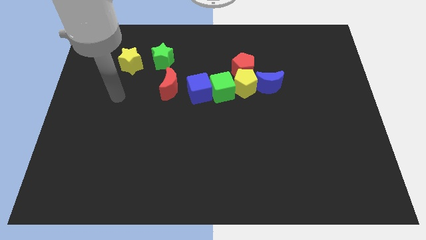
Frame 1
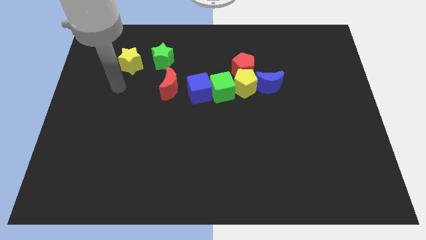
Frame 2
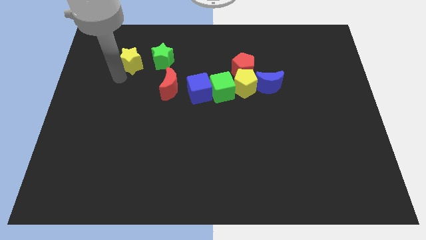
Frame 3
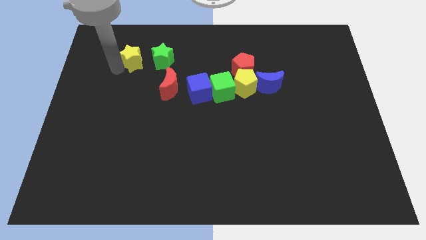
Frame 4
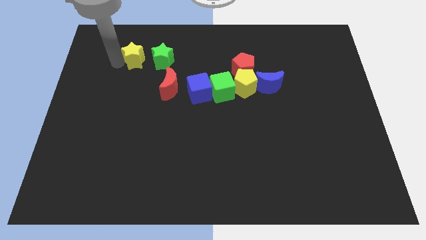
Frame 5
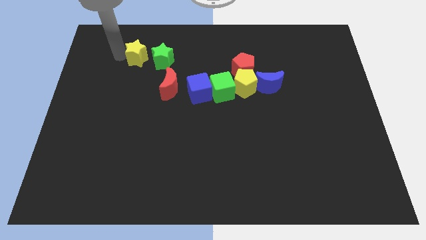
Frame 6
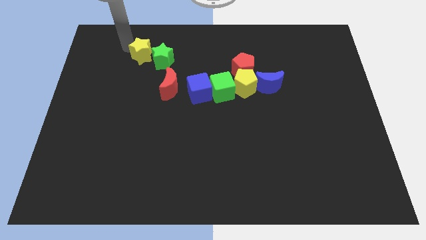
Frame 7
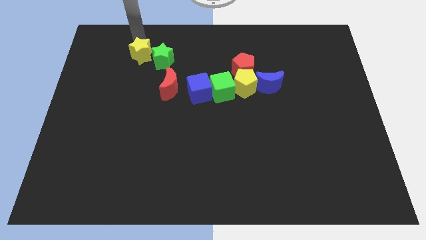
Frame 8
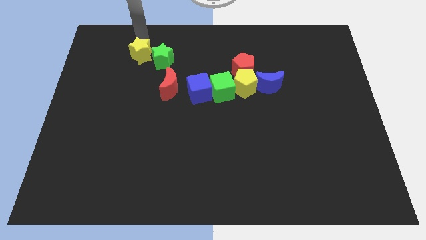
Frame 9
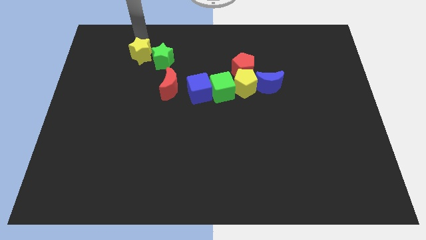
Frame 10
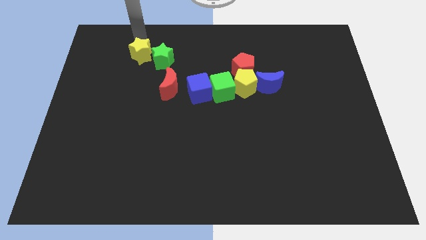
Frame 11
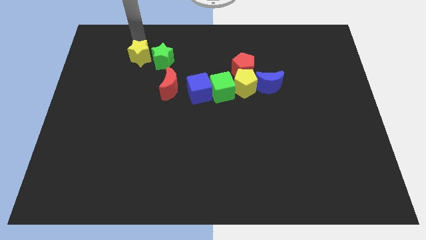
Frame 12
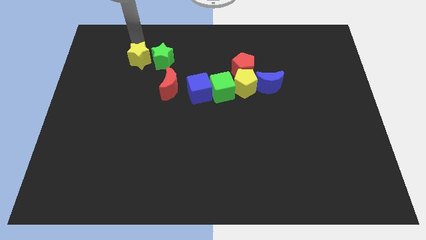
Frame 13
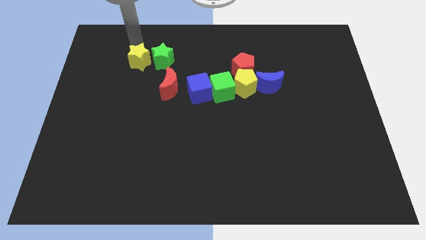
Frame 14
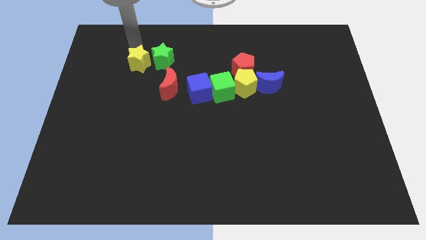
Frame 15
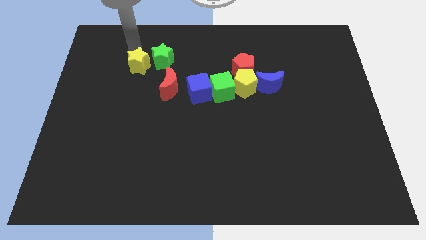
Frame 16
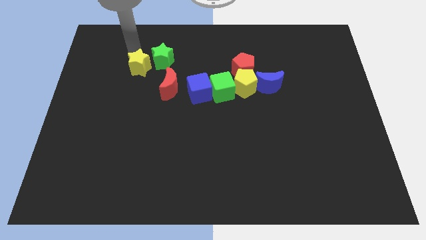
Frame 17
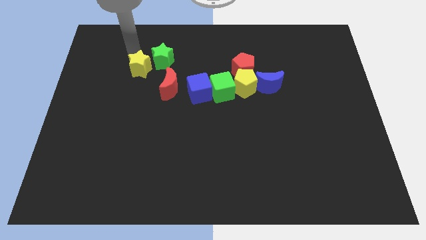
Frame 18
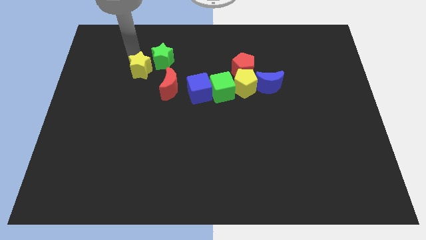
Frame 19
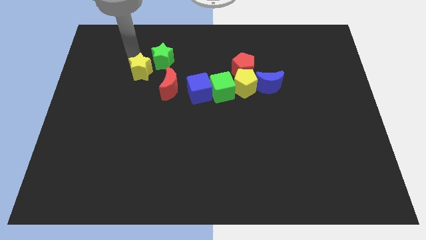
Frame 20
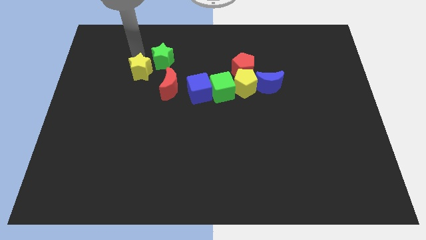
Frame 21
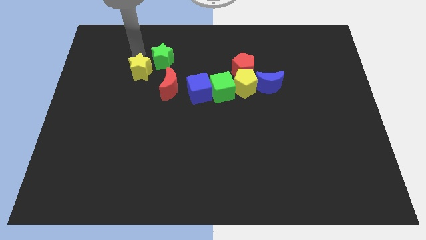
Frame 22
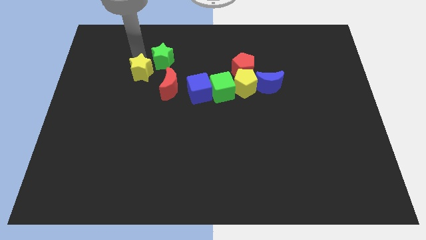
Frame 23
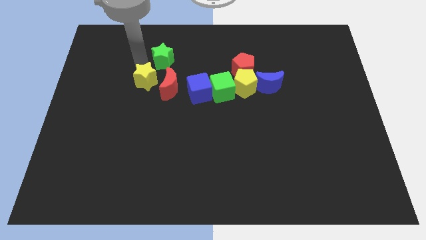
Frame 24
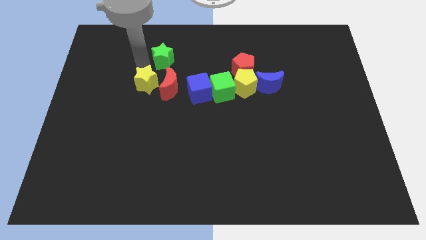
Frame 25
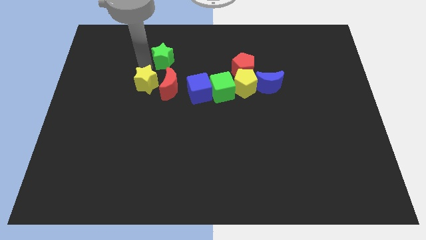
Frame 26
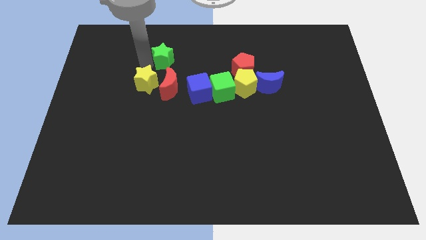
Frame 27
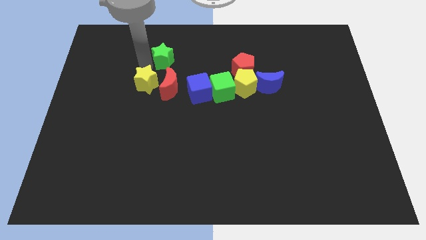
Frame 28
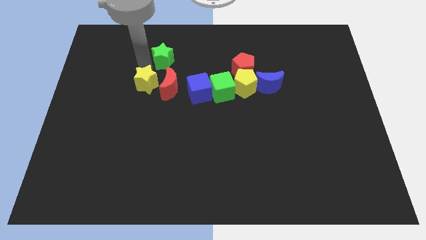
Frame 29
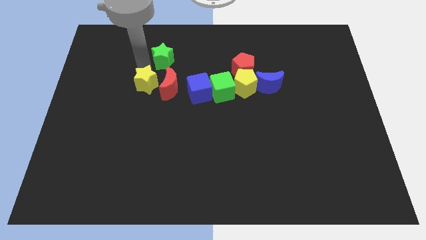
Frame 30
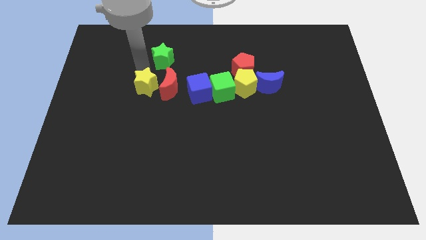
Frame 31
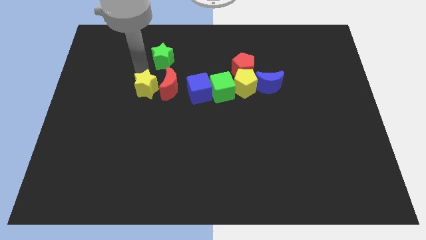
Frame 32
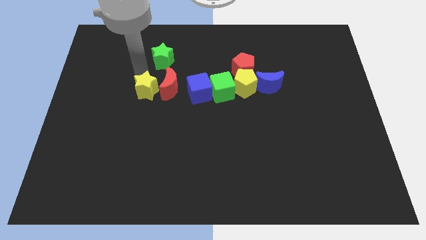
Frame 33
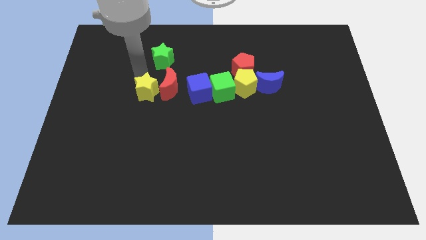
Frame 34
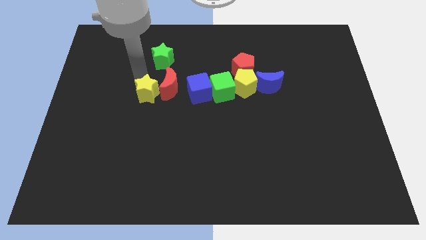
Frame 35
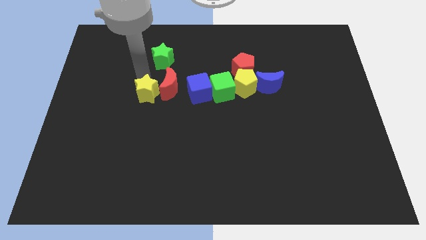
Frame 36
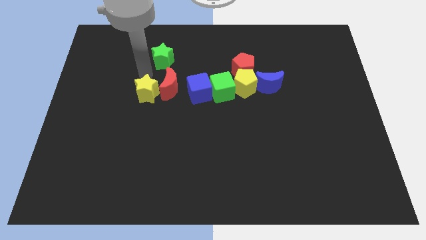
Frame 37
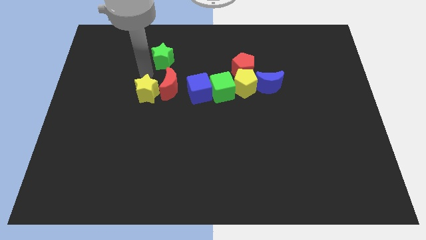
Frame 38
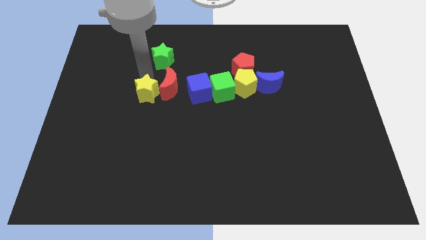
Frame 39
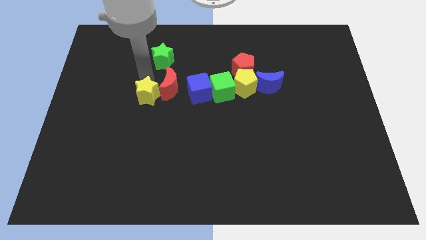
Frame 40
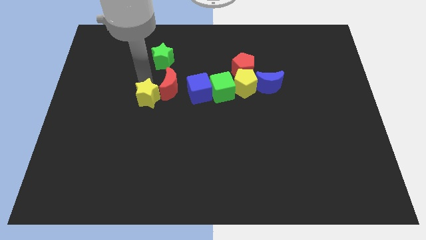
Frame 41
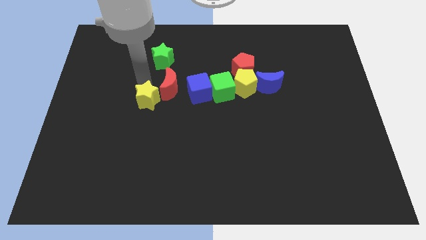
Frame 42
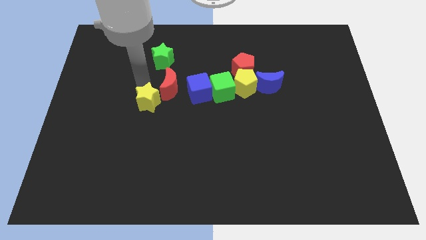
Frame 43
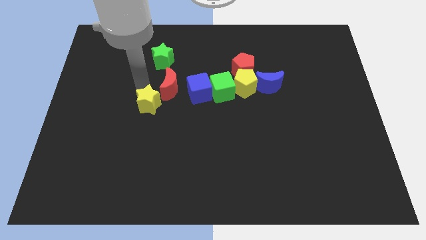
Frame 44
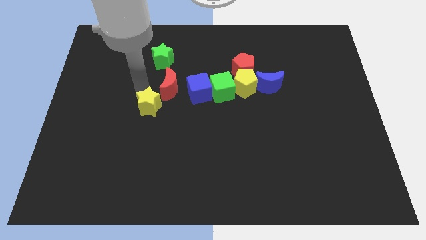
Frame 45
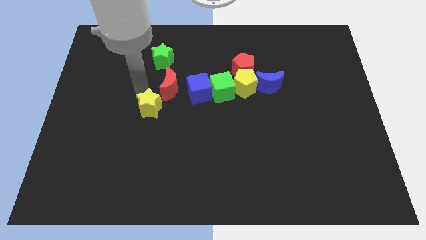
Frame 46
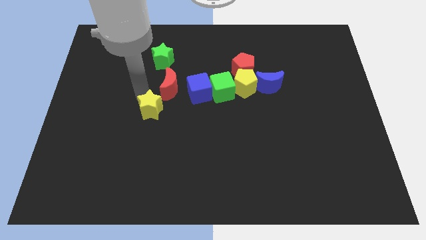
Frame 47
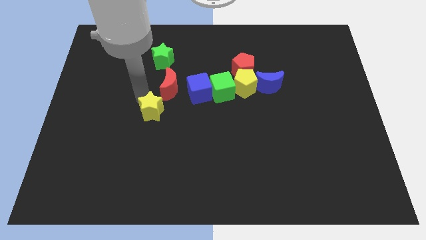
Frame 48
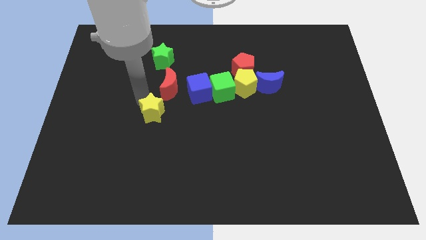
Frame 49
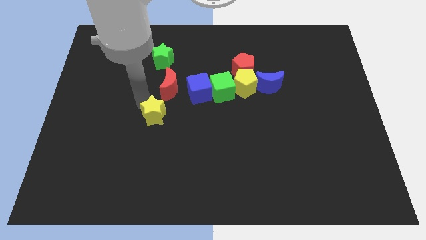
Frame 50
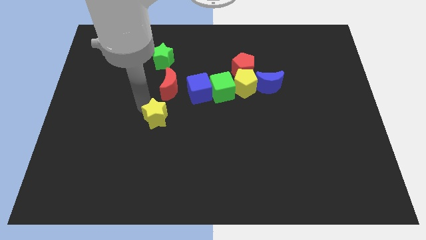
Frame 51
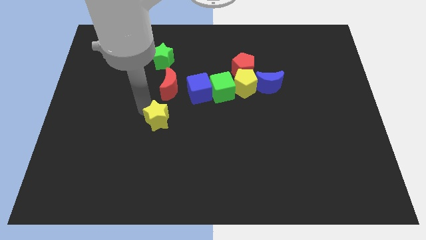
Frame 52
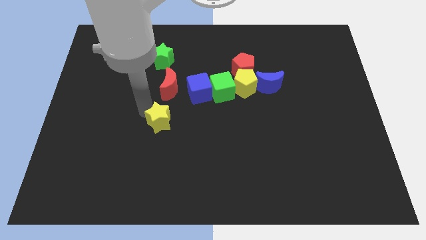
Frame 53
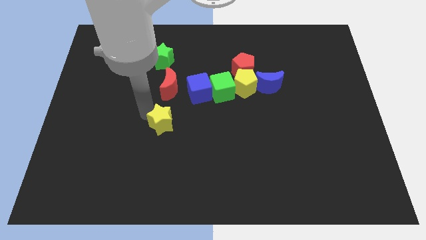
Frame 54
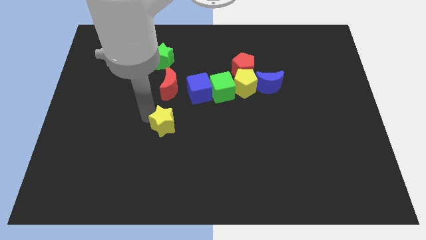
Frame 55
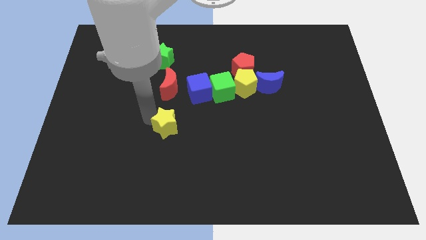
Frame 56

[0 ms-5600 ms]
slide the yellow star diagonally downwards and right

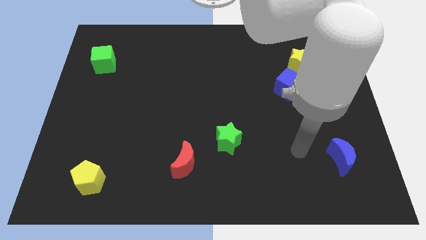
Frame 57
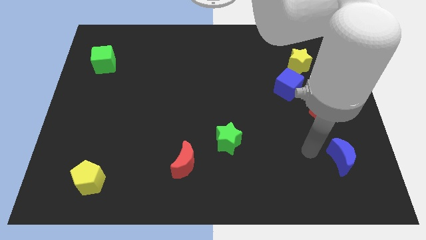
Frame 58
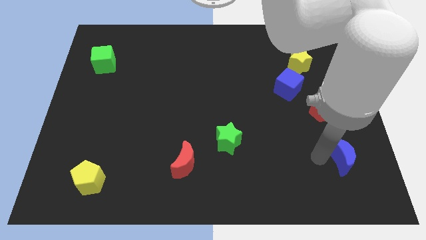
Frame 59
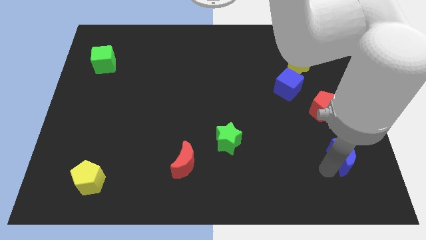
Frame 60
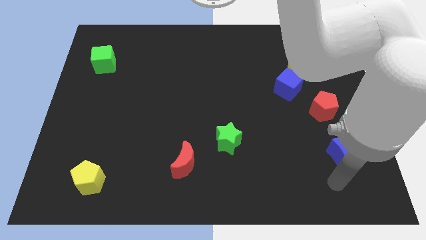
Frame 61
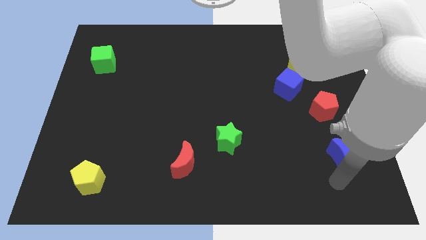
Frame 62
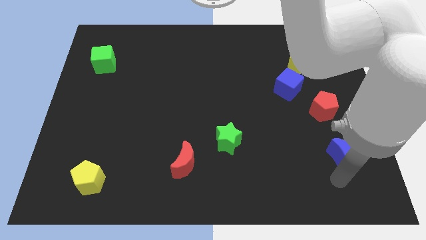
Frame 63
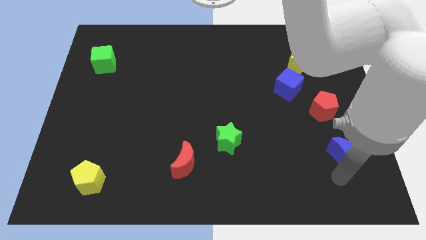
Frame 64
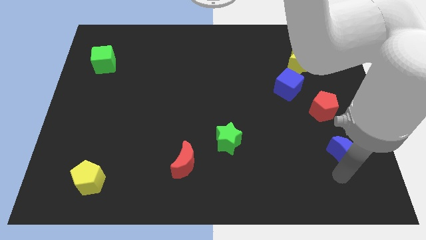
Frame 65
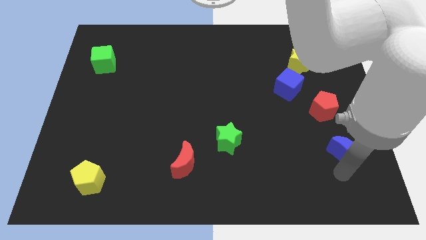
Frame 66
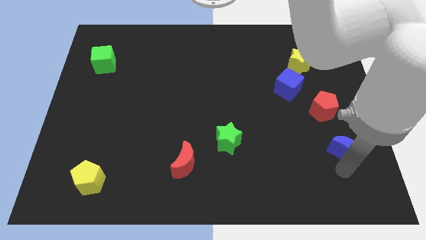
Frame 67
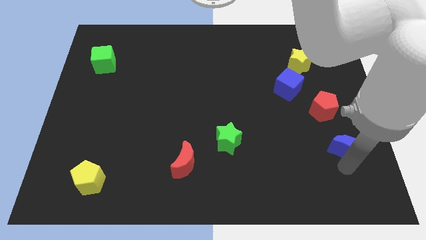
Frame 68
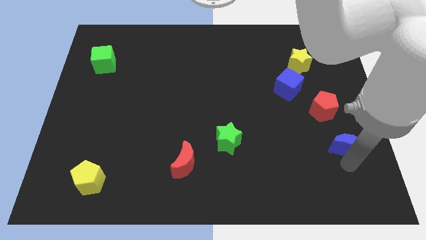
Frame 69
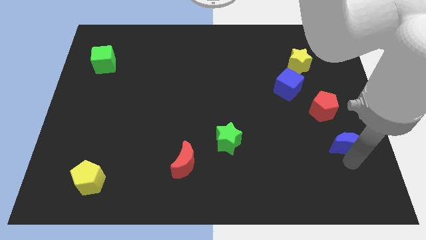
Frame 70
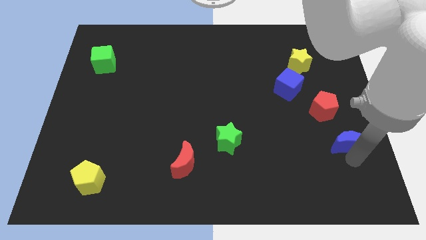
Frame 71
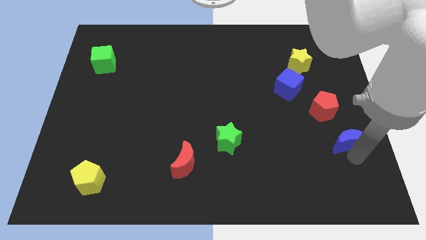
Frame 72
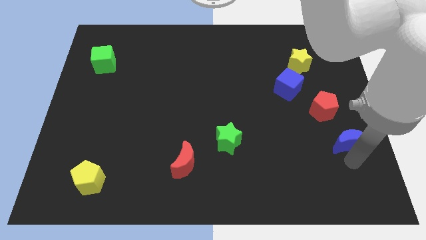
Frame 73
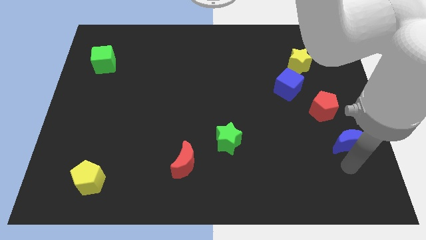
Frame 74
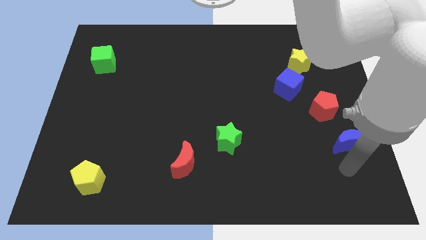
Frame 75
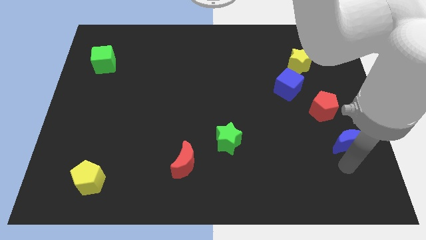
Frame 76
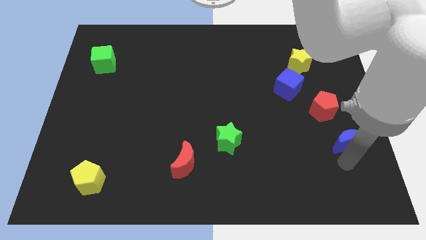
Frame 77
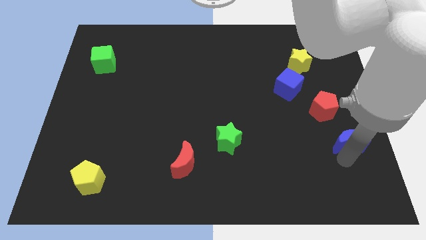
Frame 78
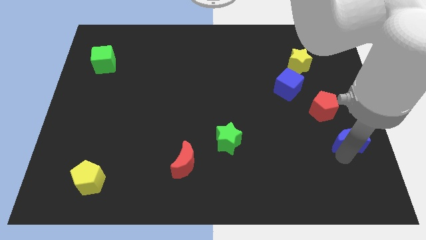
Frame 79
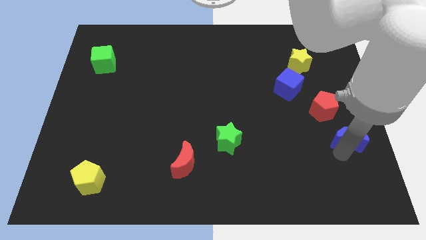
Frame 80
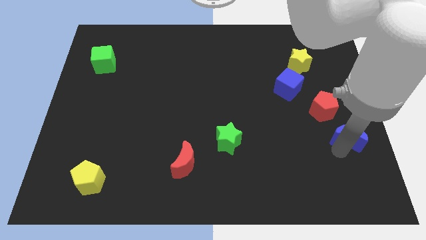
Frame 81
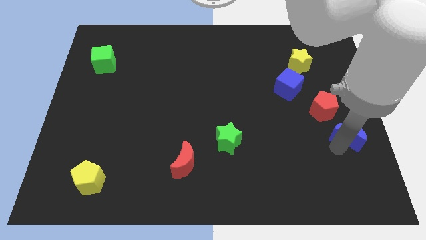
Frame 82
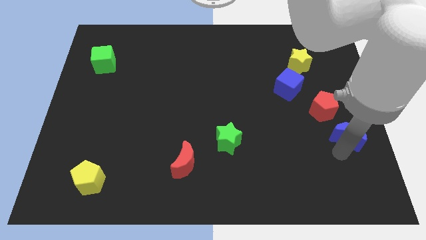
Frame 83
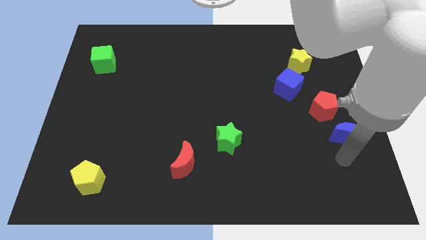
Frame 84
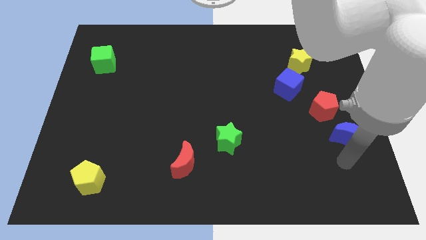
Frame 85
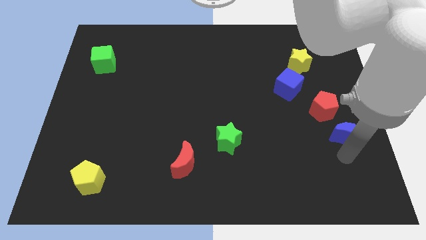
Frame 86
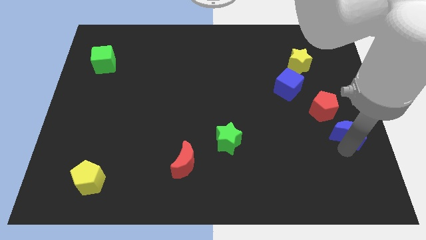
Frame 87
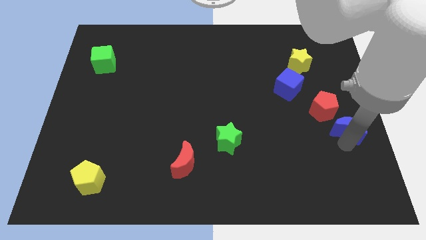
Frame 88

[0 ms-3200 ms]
slightly move the blue moon upwards
